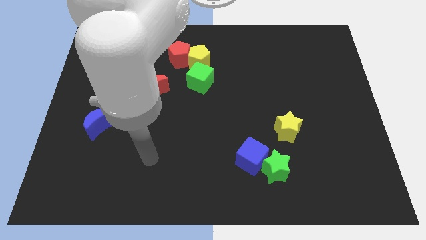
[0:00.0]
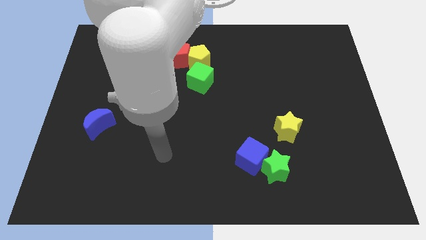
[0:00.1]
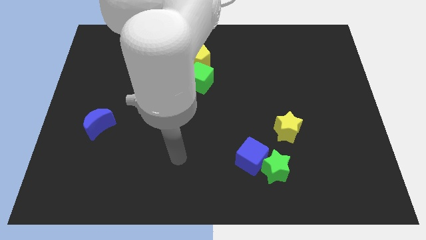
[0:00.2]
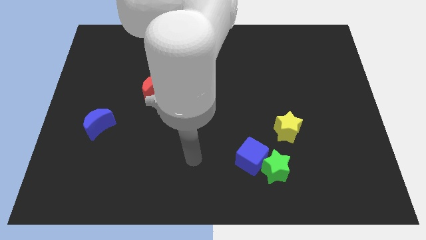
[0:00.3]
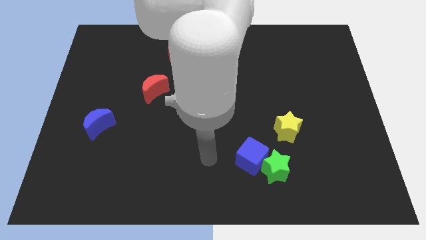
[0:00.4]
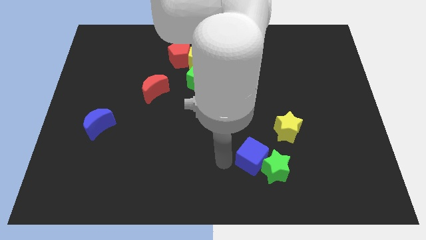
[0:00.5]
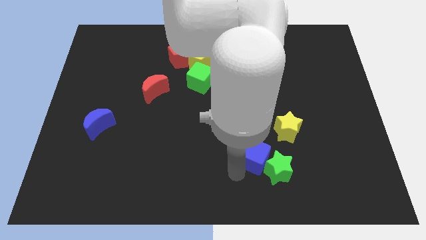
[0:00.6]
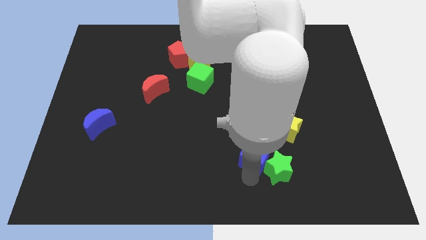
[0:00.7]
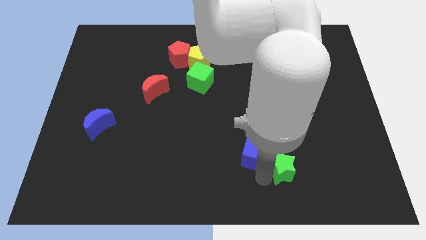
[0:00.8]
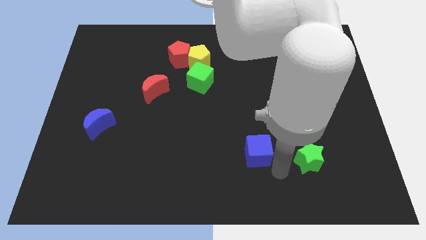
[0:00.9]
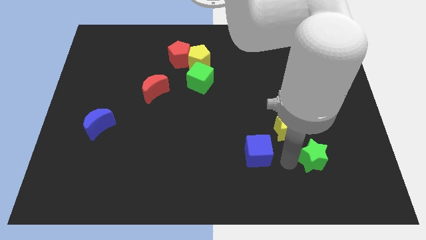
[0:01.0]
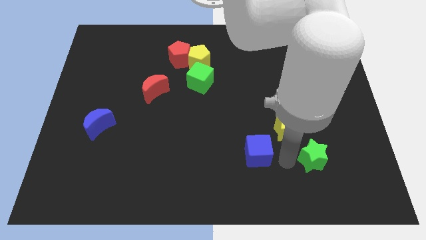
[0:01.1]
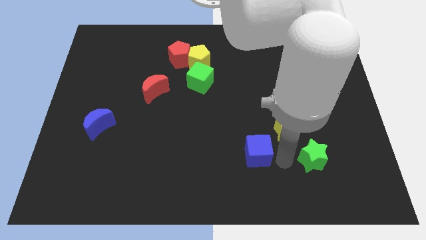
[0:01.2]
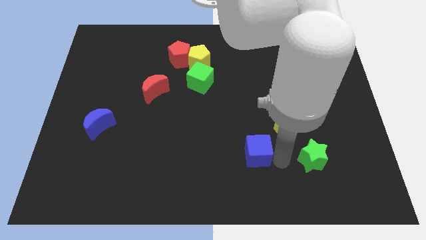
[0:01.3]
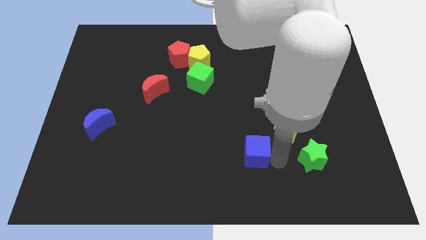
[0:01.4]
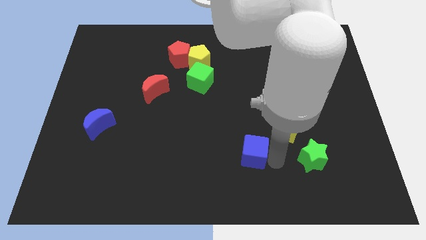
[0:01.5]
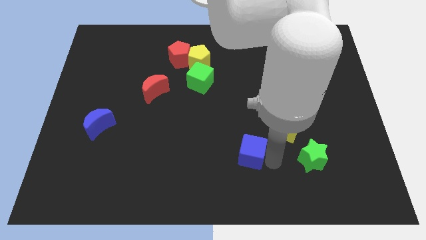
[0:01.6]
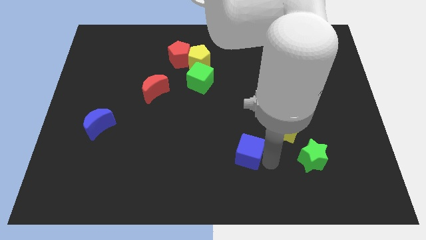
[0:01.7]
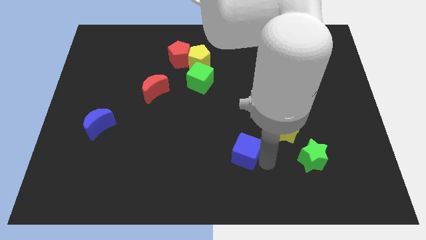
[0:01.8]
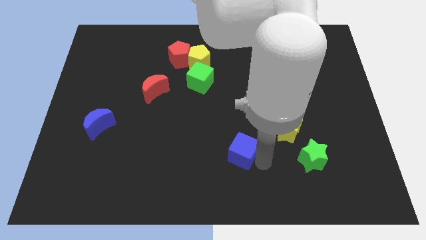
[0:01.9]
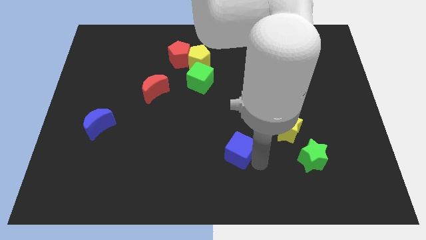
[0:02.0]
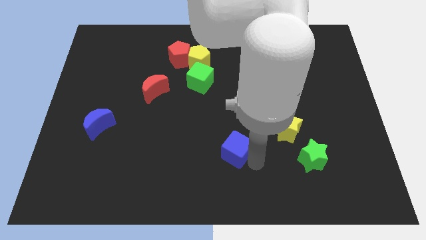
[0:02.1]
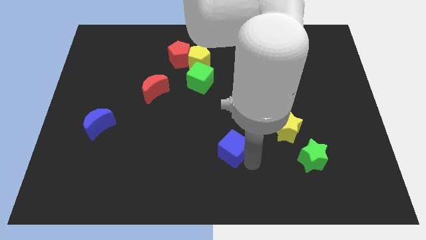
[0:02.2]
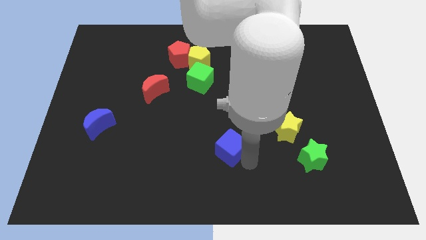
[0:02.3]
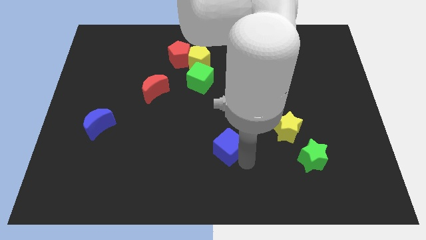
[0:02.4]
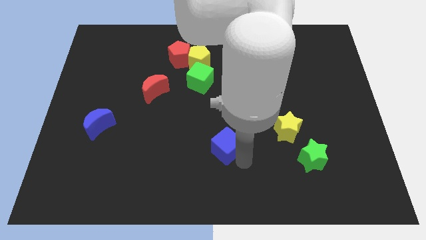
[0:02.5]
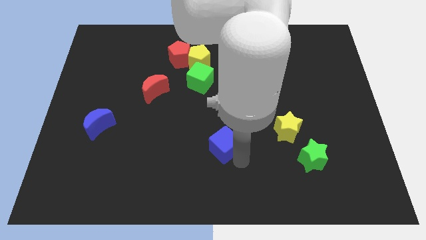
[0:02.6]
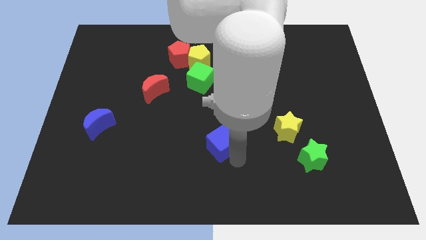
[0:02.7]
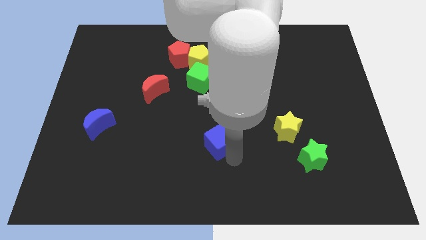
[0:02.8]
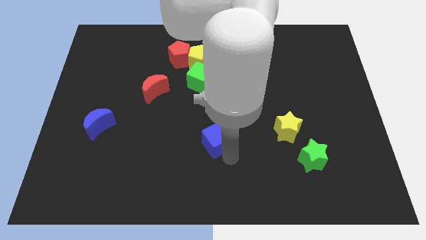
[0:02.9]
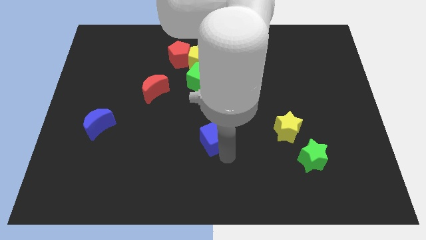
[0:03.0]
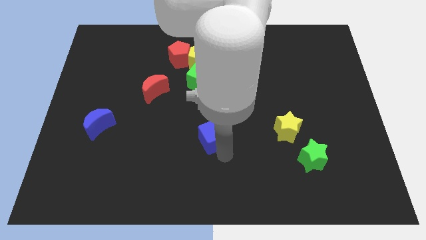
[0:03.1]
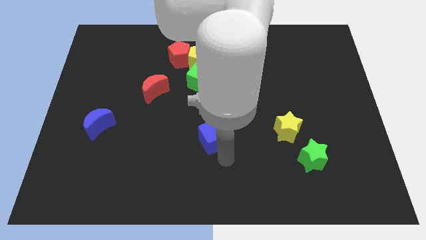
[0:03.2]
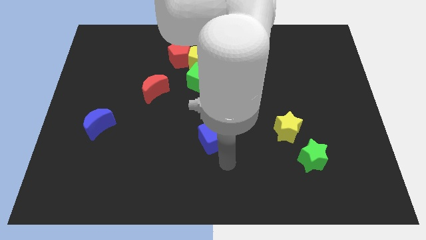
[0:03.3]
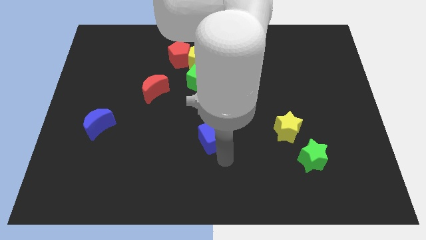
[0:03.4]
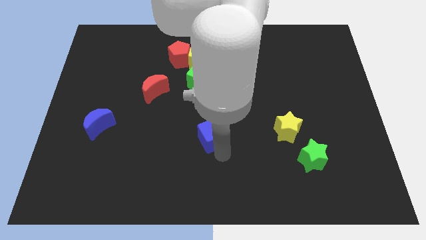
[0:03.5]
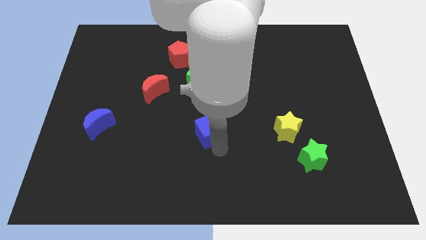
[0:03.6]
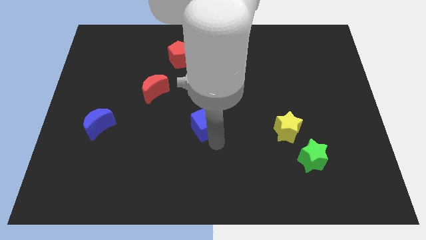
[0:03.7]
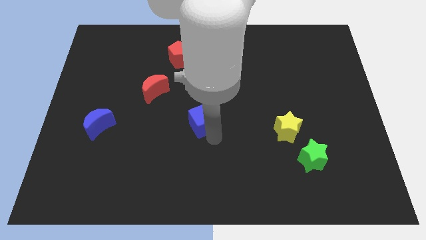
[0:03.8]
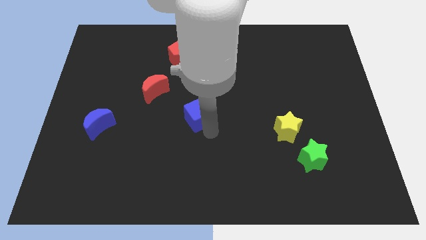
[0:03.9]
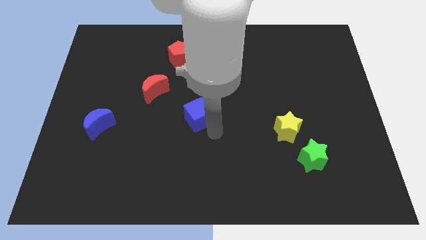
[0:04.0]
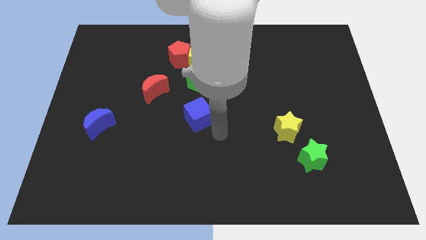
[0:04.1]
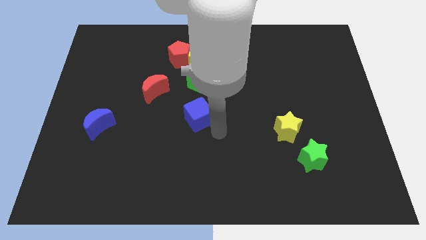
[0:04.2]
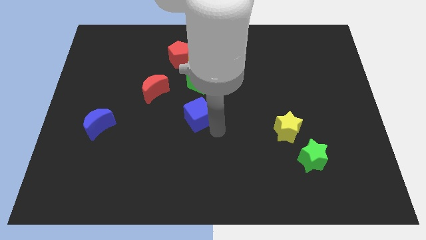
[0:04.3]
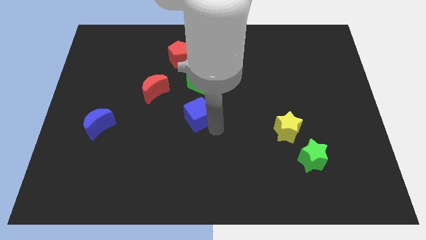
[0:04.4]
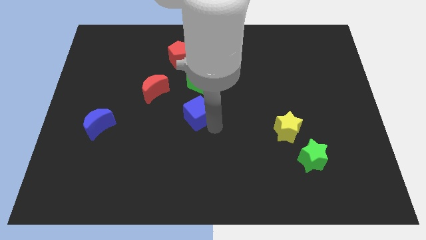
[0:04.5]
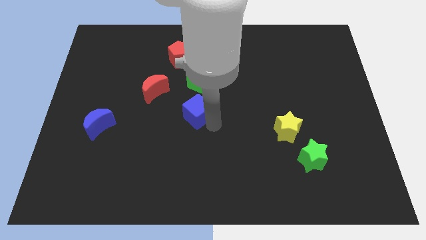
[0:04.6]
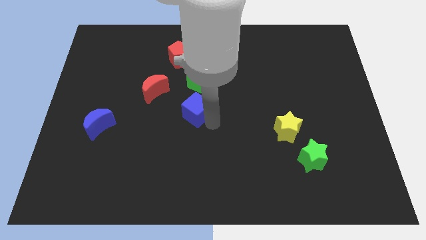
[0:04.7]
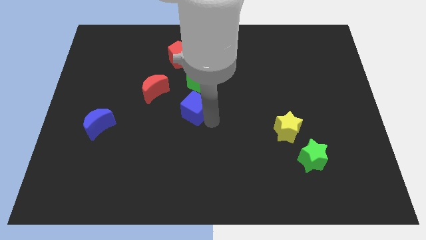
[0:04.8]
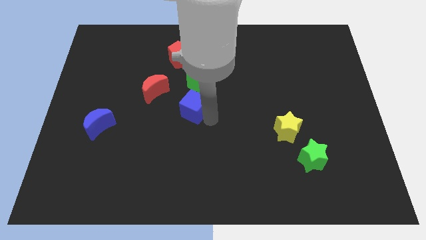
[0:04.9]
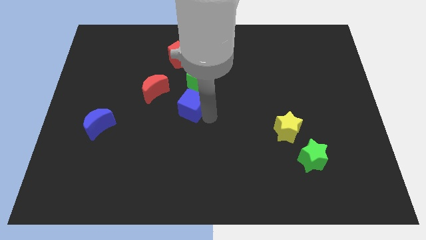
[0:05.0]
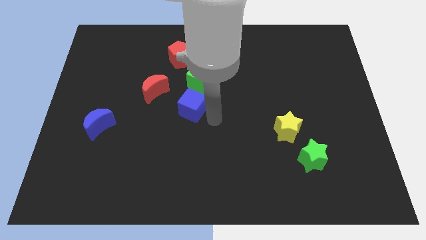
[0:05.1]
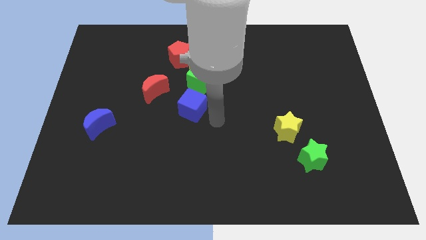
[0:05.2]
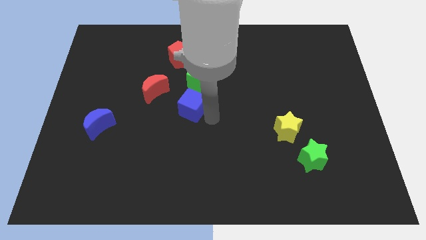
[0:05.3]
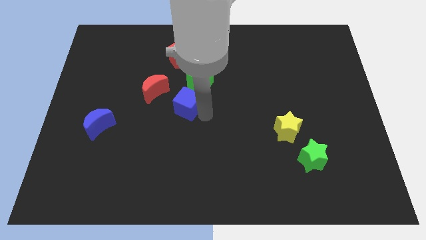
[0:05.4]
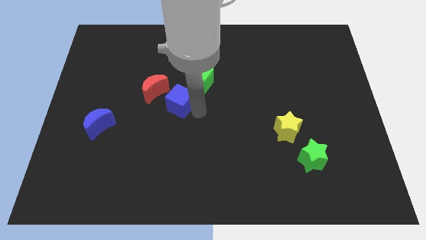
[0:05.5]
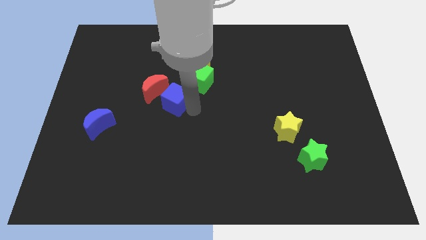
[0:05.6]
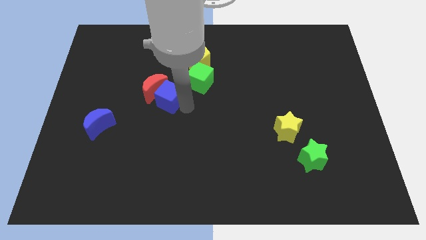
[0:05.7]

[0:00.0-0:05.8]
slide the blue cube to the red moon

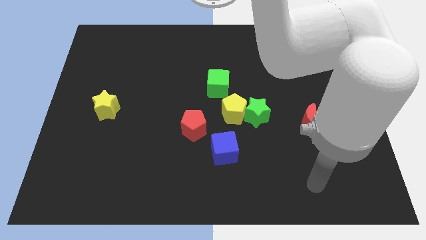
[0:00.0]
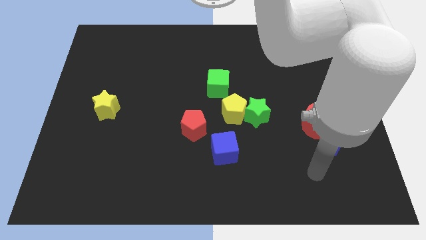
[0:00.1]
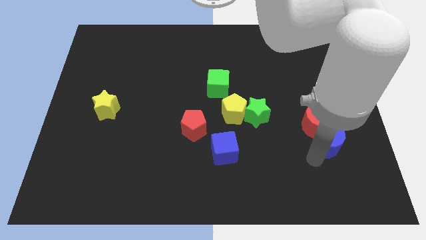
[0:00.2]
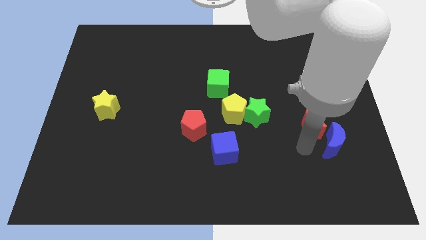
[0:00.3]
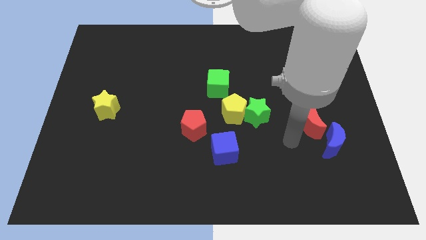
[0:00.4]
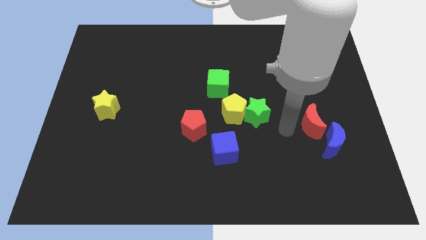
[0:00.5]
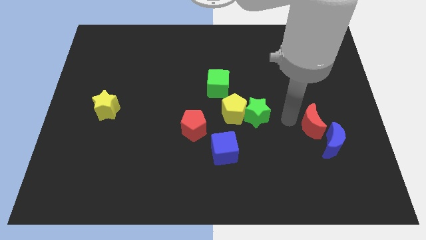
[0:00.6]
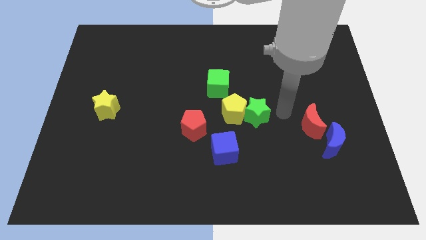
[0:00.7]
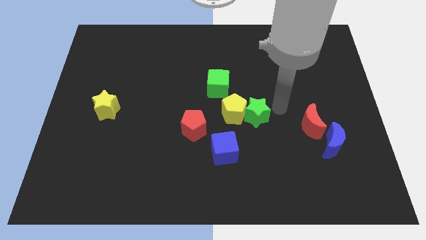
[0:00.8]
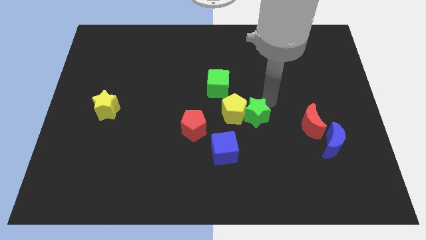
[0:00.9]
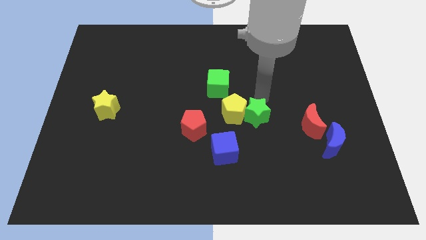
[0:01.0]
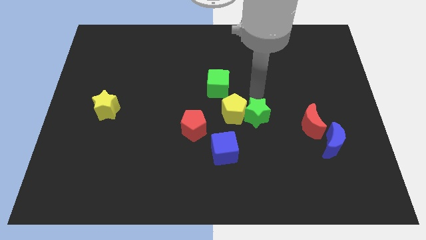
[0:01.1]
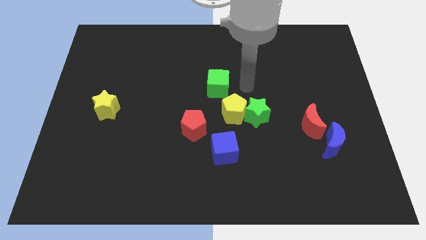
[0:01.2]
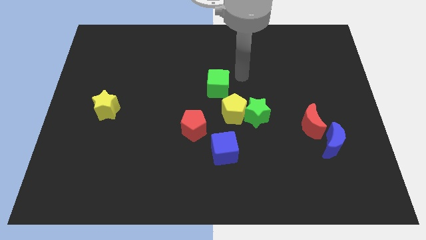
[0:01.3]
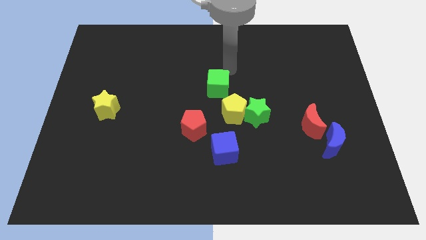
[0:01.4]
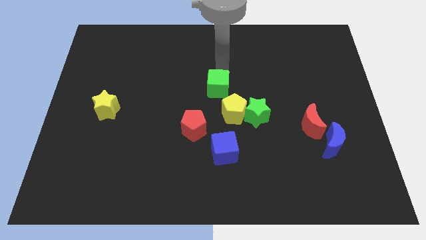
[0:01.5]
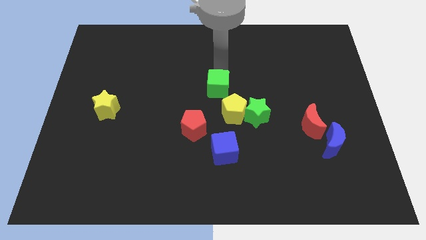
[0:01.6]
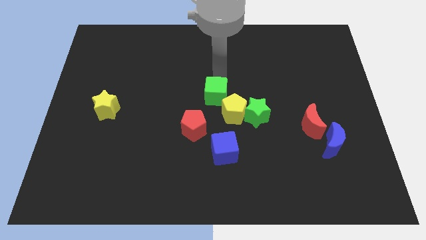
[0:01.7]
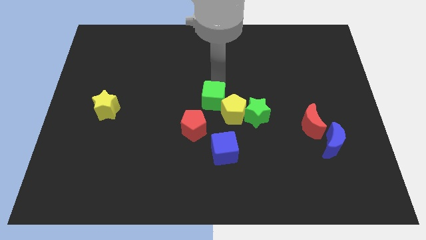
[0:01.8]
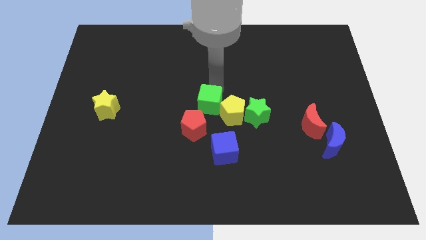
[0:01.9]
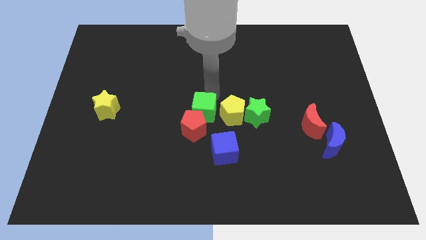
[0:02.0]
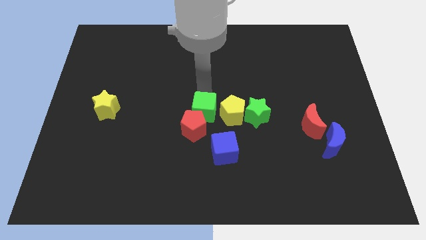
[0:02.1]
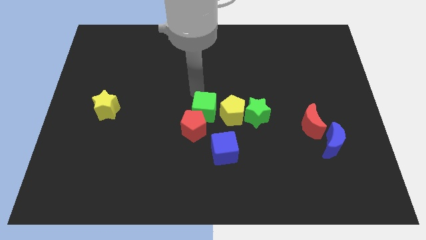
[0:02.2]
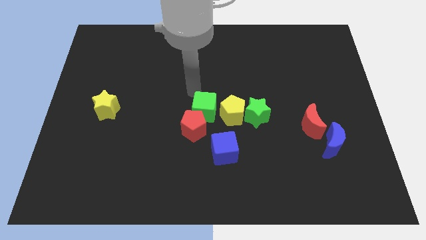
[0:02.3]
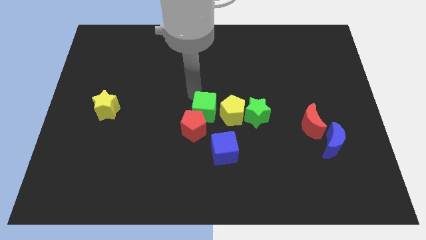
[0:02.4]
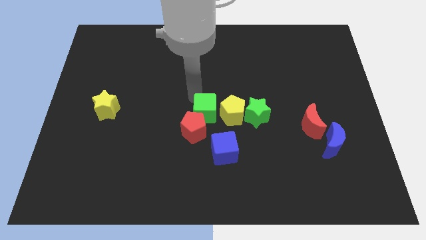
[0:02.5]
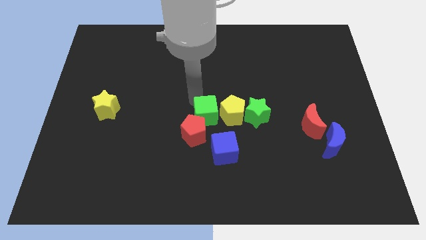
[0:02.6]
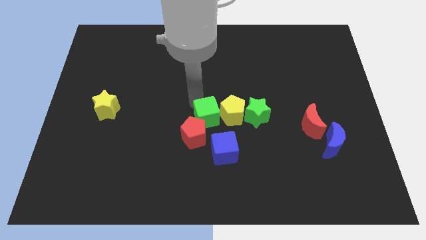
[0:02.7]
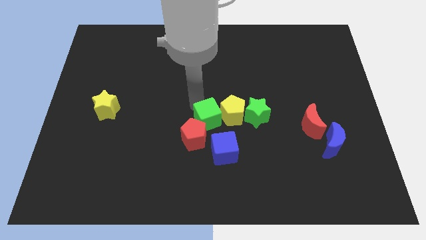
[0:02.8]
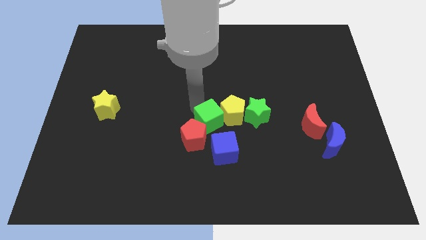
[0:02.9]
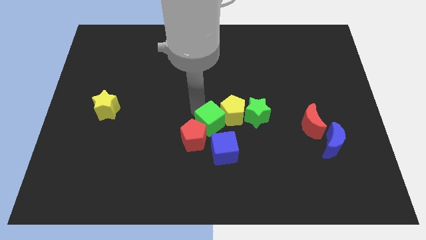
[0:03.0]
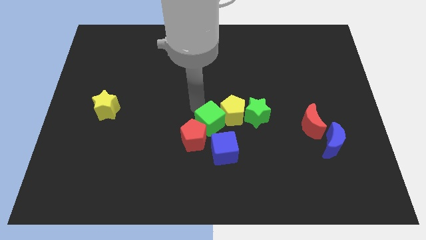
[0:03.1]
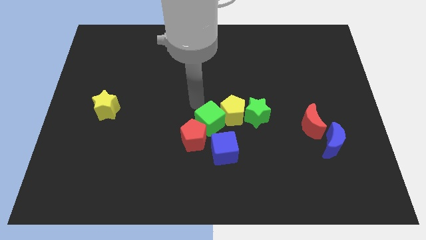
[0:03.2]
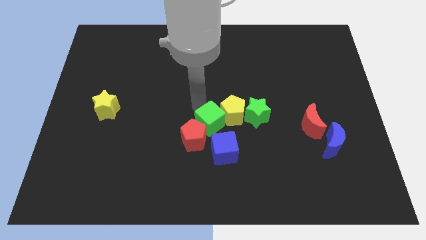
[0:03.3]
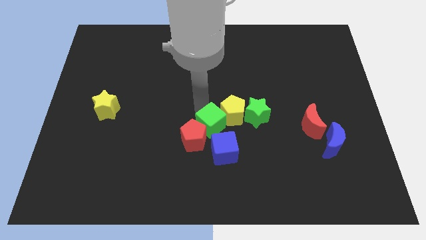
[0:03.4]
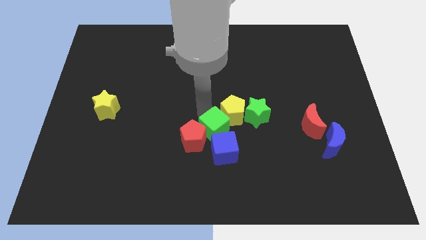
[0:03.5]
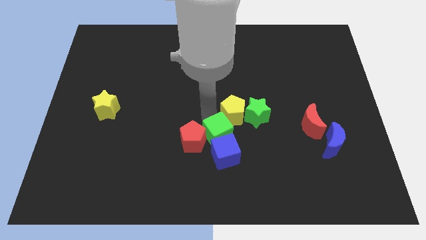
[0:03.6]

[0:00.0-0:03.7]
slide the green cube next to the blue cube
